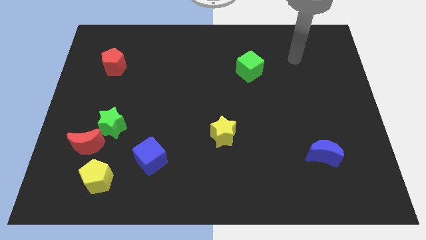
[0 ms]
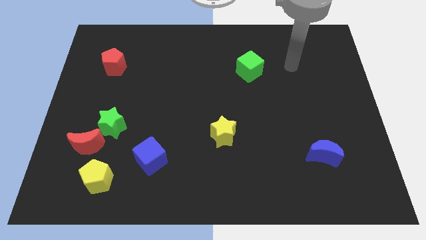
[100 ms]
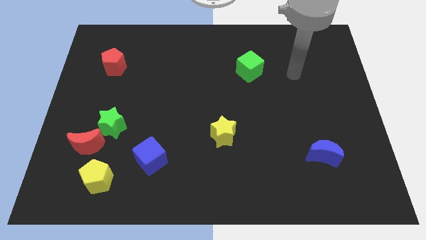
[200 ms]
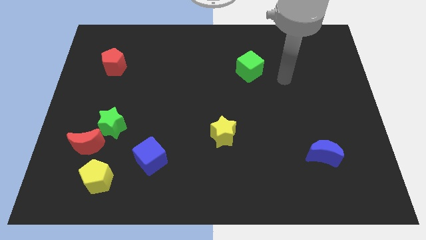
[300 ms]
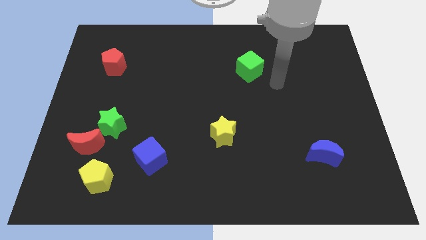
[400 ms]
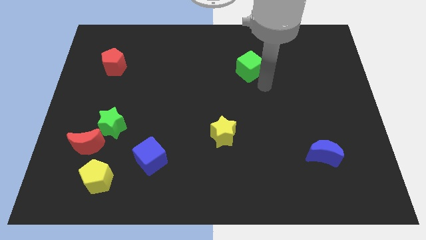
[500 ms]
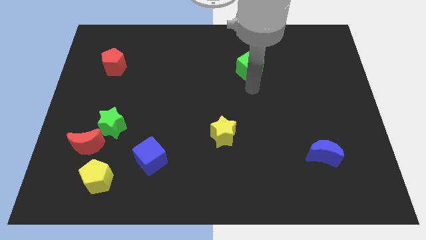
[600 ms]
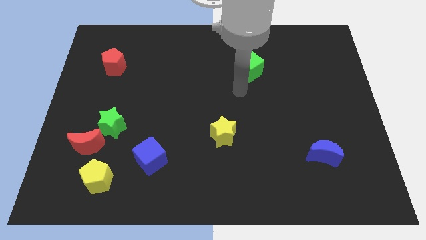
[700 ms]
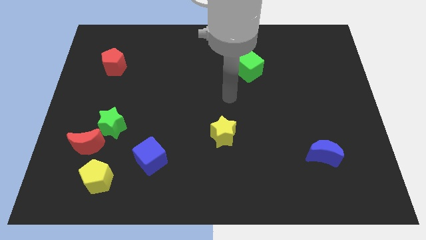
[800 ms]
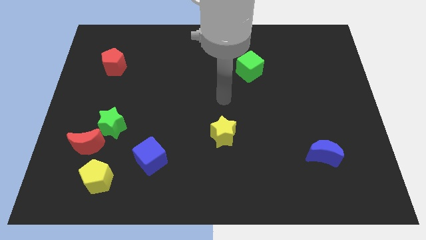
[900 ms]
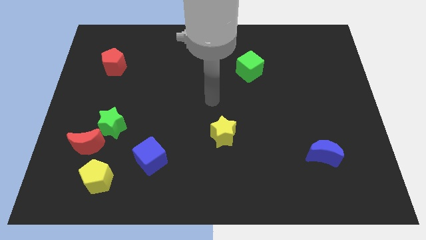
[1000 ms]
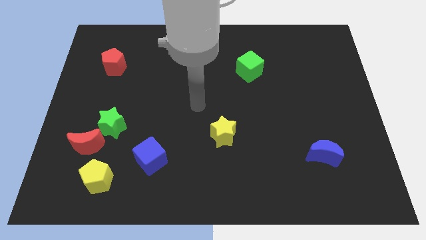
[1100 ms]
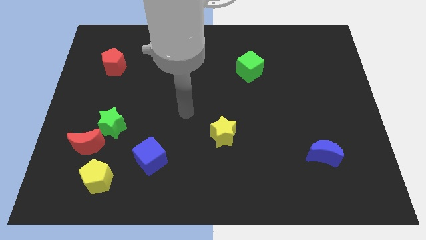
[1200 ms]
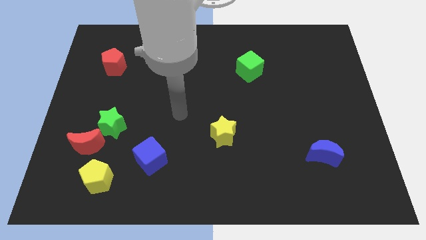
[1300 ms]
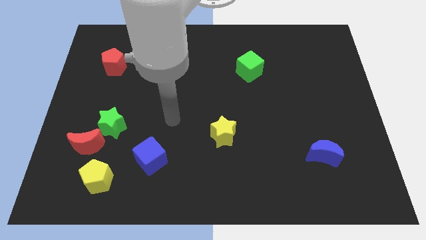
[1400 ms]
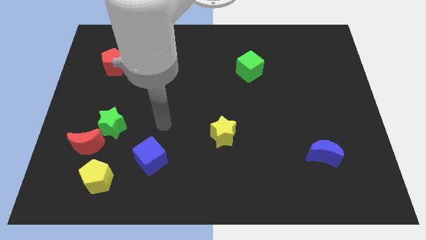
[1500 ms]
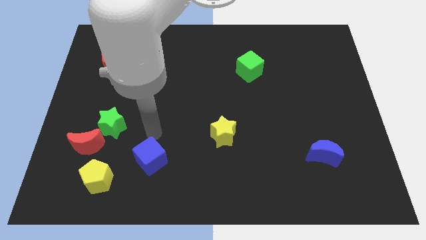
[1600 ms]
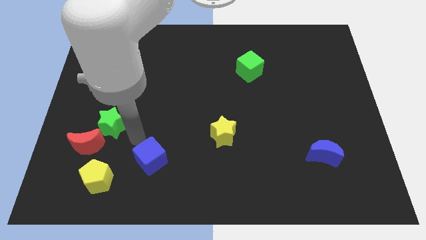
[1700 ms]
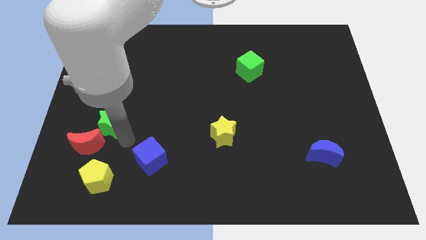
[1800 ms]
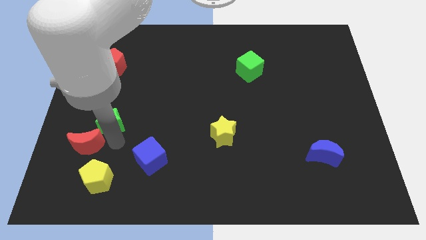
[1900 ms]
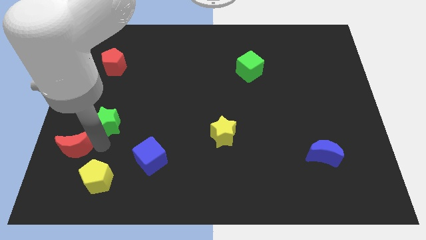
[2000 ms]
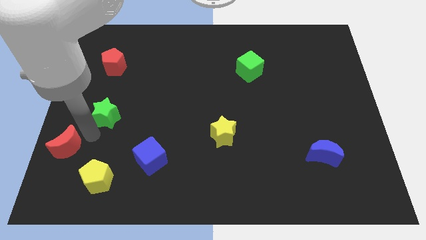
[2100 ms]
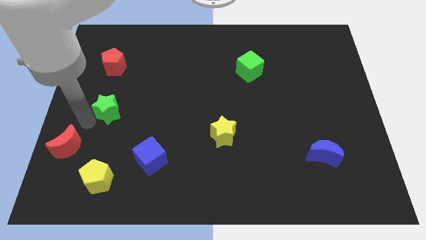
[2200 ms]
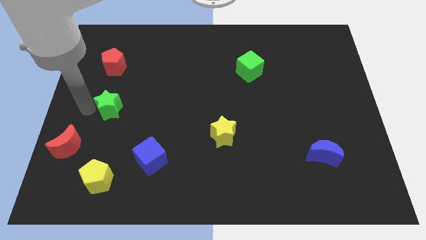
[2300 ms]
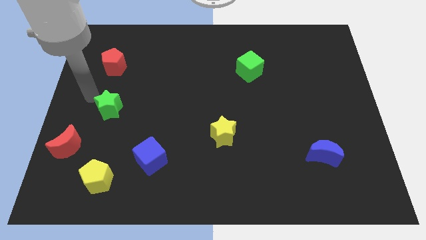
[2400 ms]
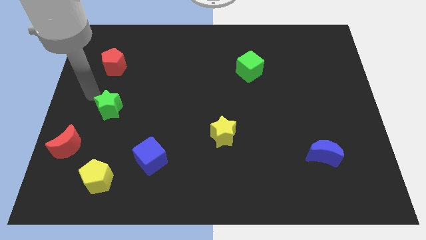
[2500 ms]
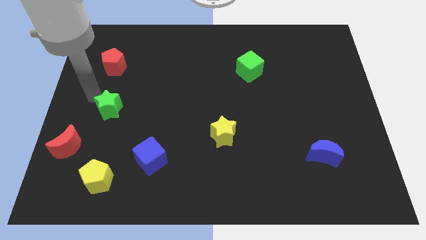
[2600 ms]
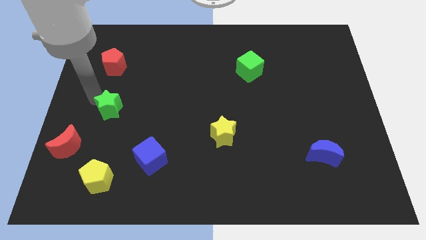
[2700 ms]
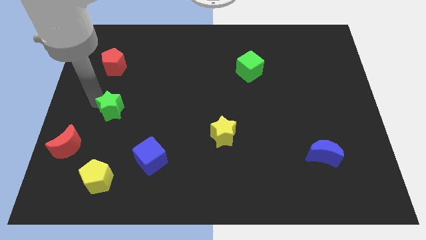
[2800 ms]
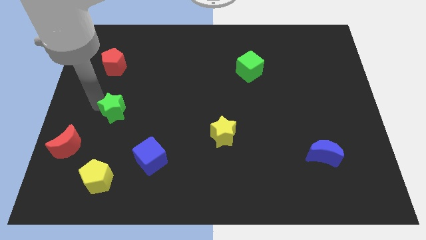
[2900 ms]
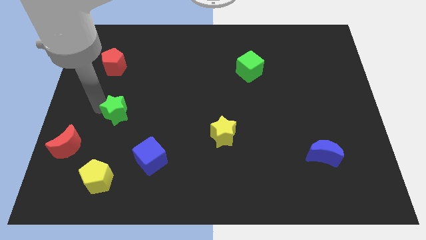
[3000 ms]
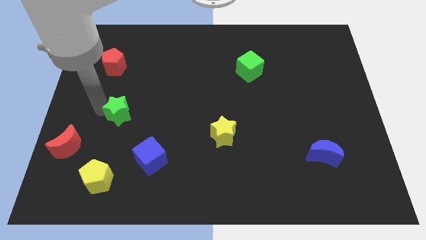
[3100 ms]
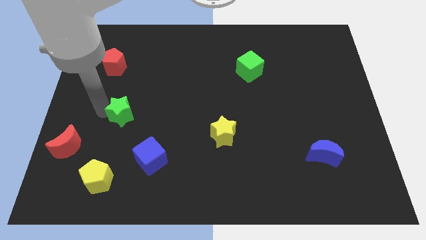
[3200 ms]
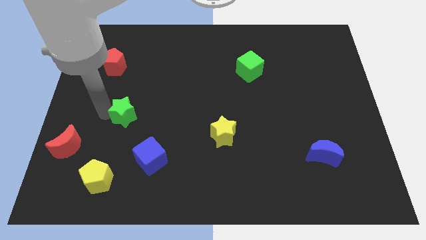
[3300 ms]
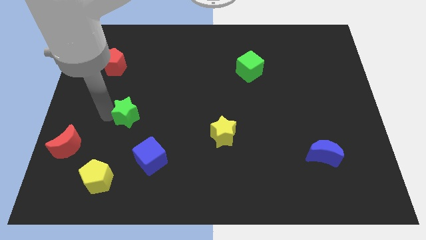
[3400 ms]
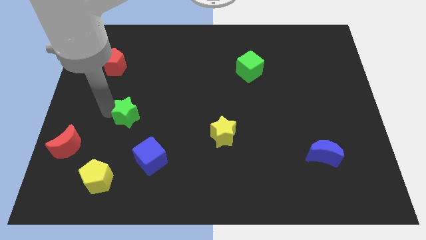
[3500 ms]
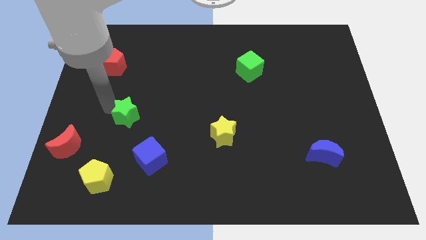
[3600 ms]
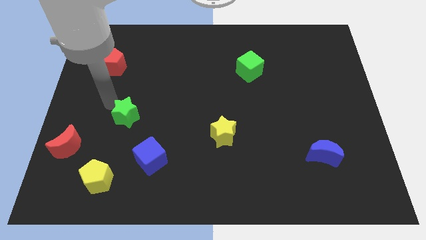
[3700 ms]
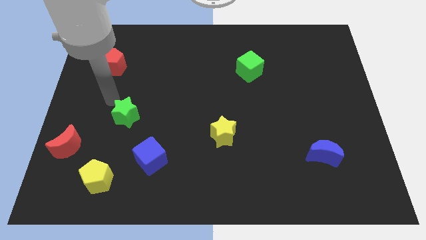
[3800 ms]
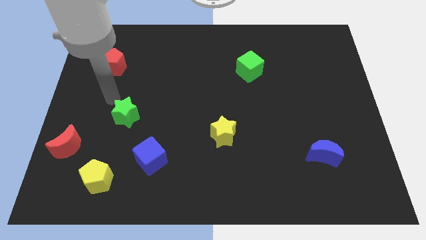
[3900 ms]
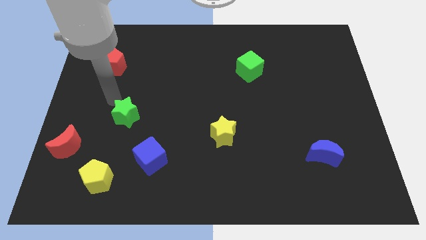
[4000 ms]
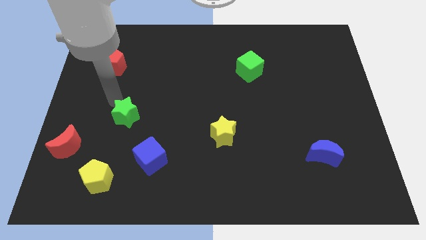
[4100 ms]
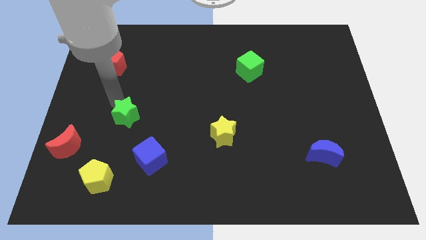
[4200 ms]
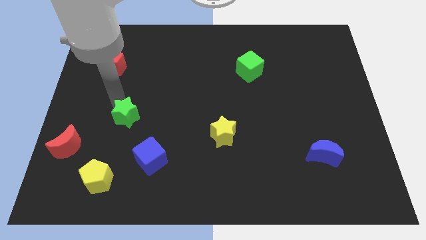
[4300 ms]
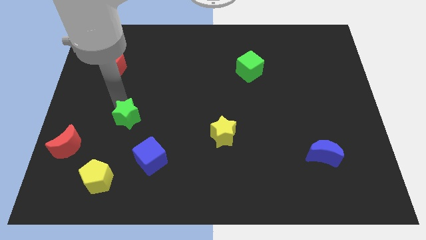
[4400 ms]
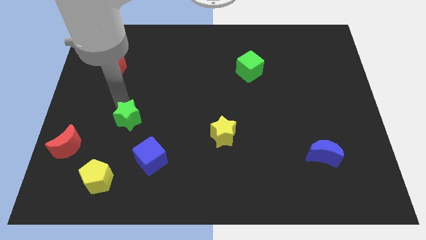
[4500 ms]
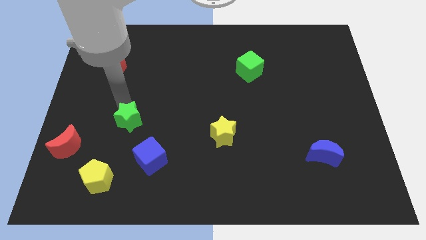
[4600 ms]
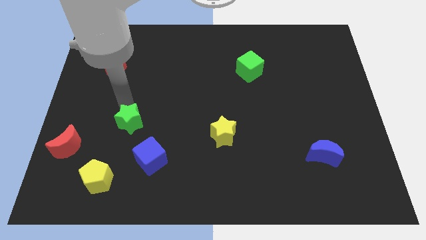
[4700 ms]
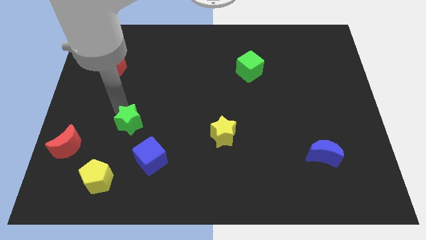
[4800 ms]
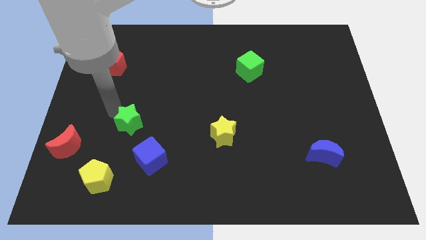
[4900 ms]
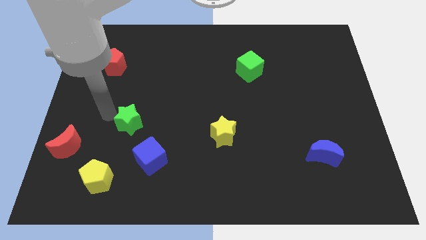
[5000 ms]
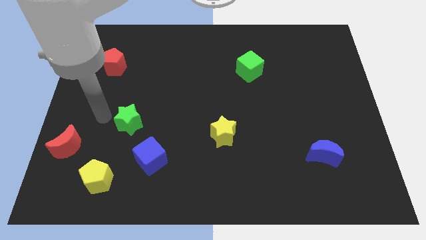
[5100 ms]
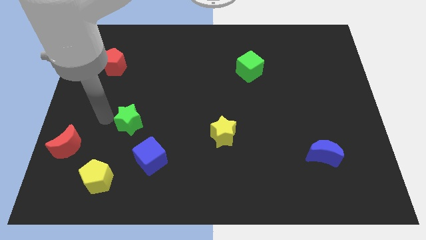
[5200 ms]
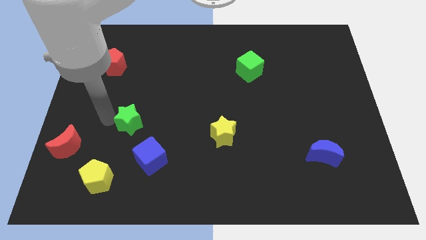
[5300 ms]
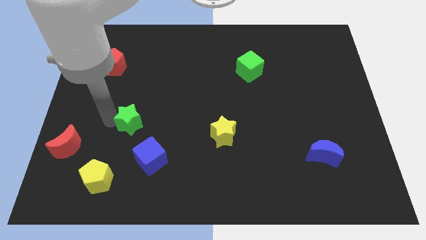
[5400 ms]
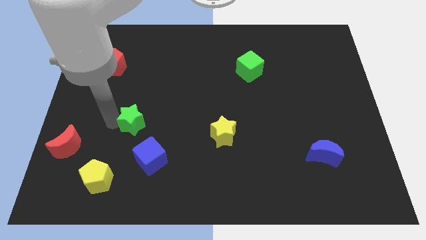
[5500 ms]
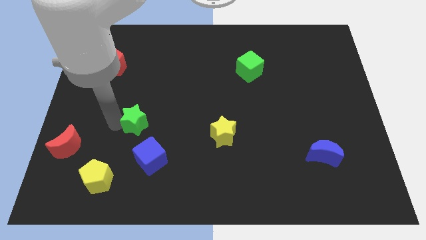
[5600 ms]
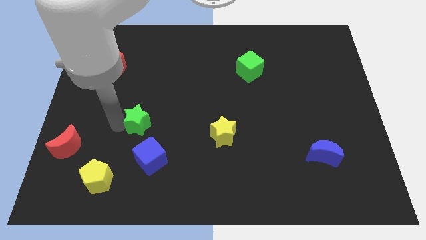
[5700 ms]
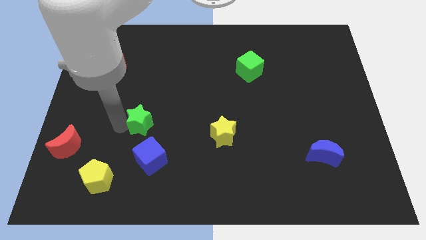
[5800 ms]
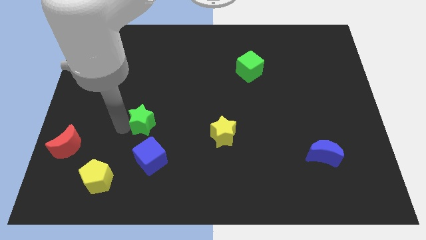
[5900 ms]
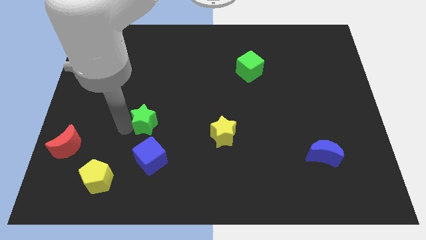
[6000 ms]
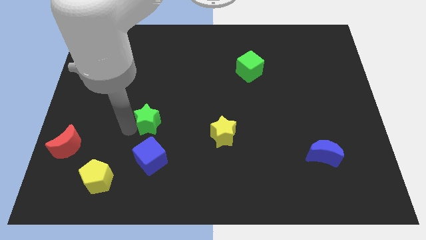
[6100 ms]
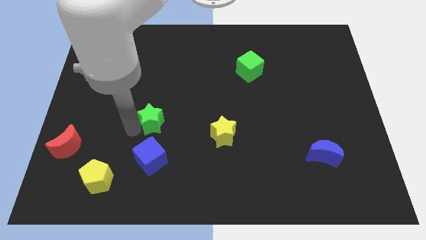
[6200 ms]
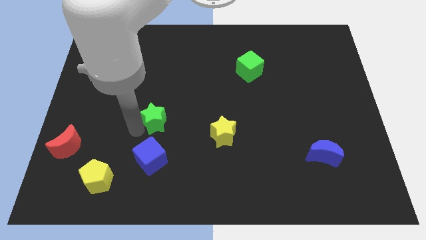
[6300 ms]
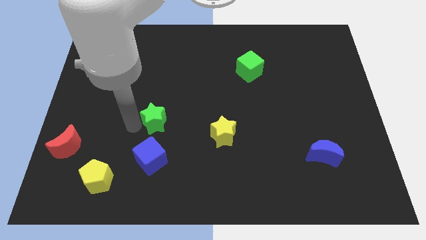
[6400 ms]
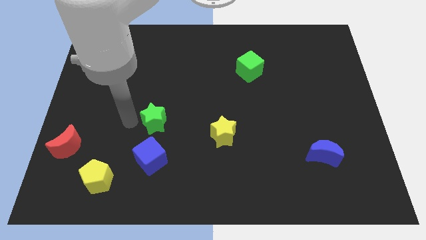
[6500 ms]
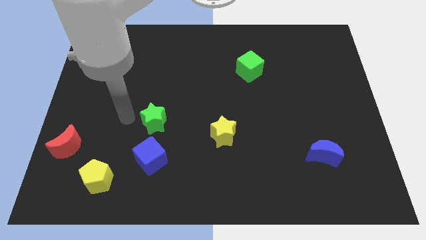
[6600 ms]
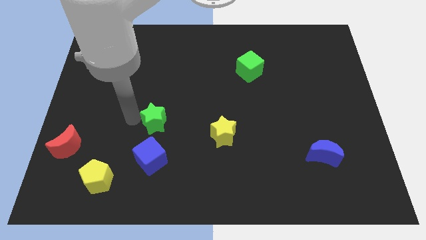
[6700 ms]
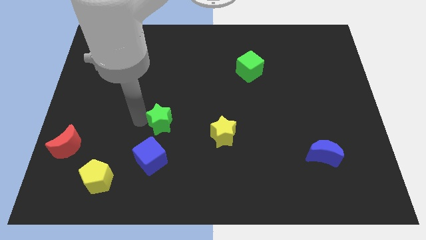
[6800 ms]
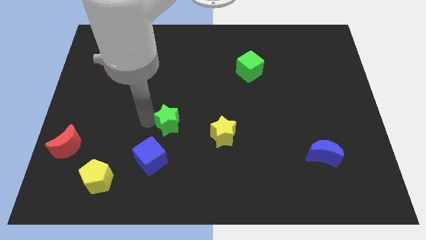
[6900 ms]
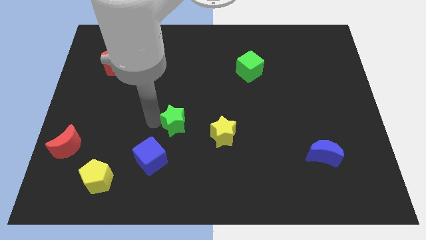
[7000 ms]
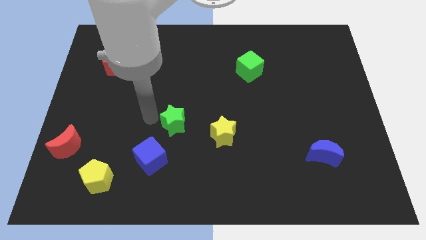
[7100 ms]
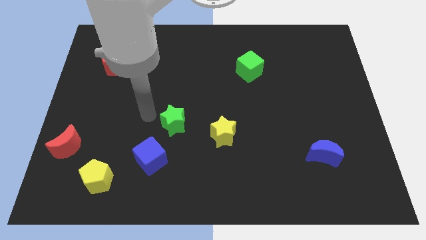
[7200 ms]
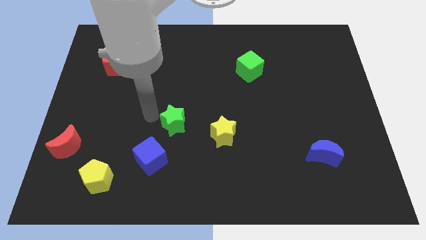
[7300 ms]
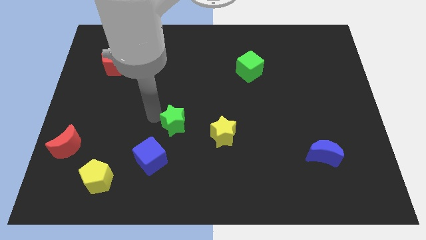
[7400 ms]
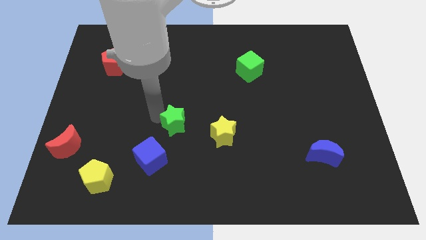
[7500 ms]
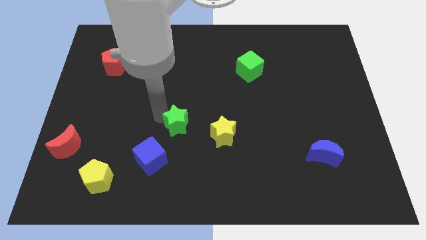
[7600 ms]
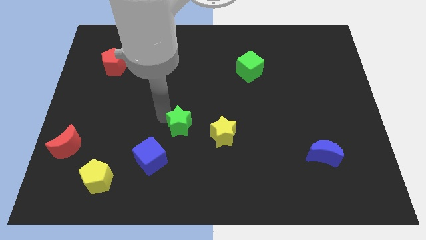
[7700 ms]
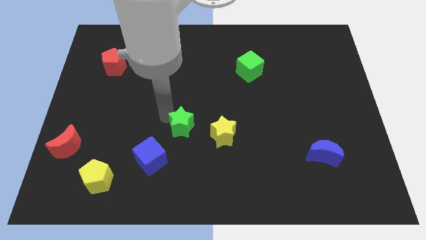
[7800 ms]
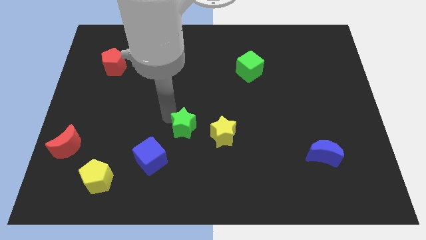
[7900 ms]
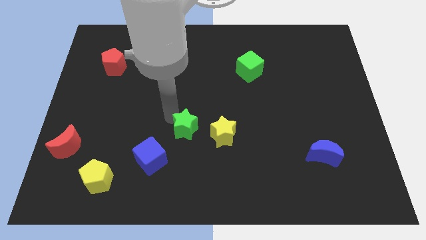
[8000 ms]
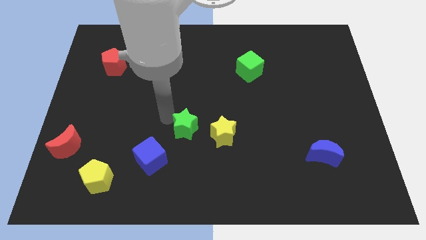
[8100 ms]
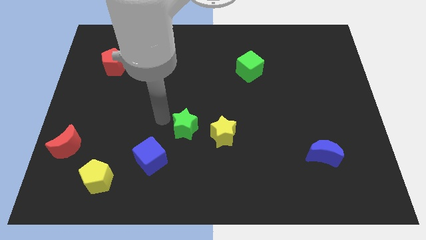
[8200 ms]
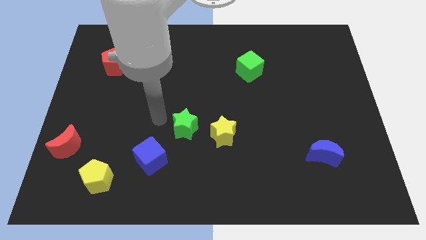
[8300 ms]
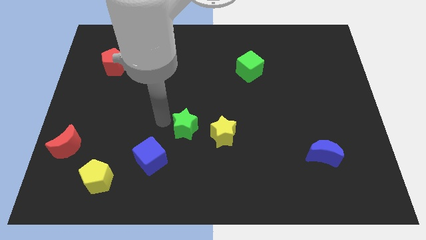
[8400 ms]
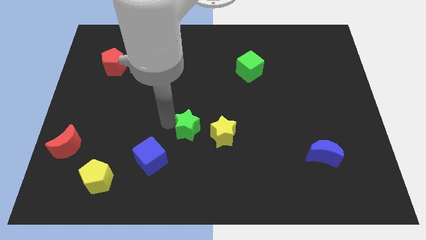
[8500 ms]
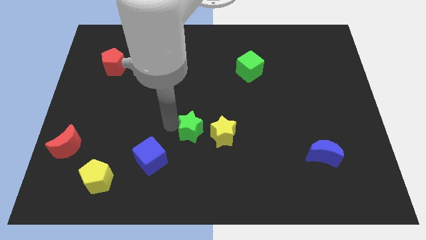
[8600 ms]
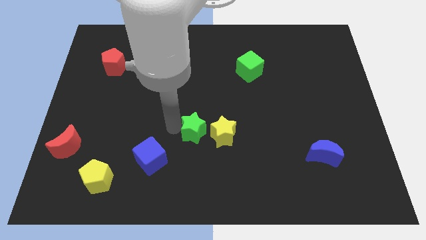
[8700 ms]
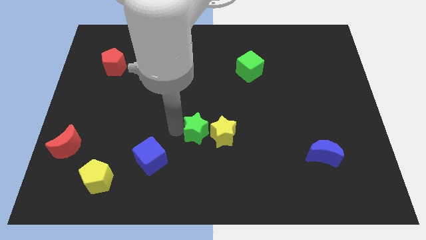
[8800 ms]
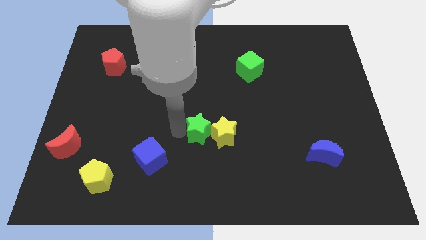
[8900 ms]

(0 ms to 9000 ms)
put the green star towards the yellow star
